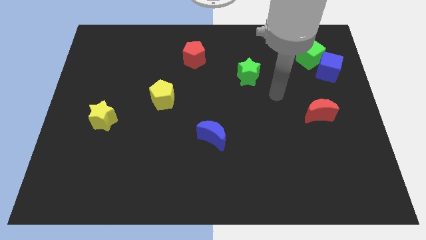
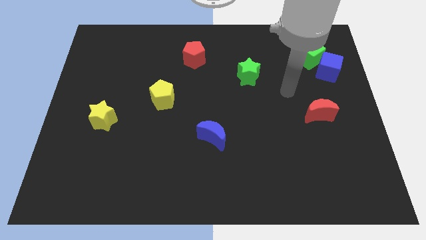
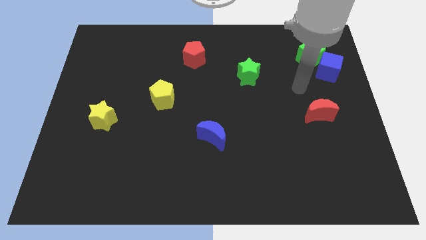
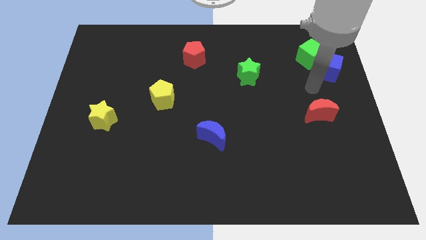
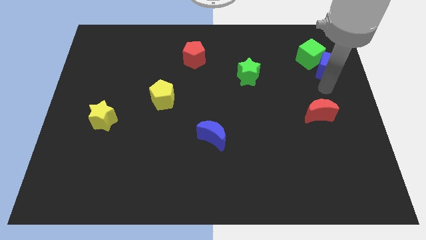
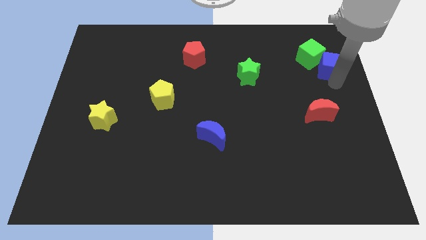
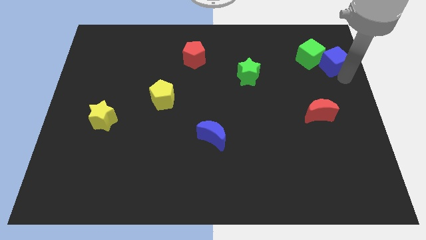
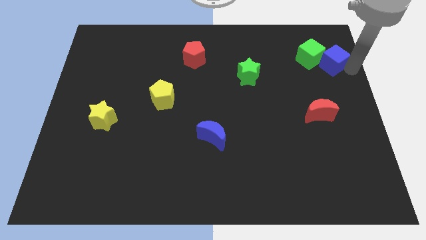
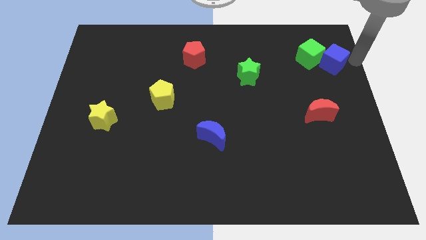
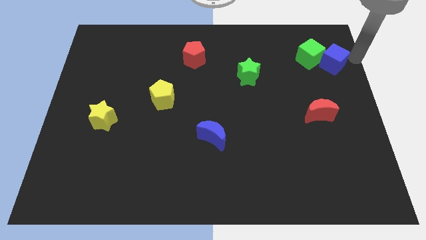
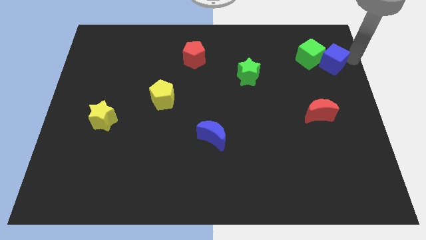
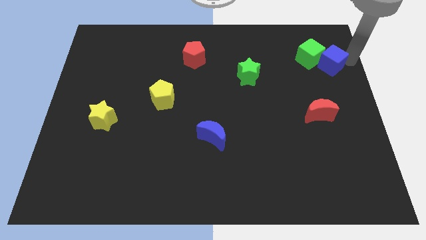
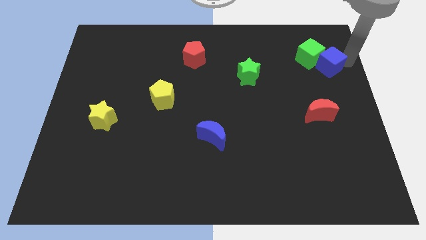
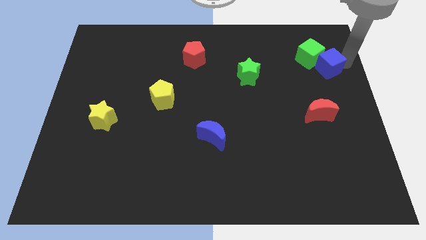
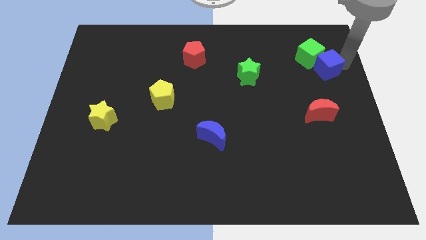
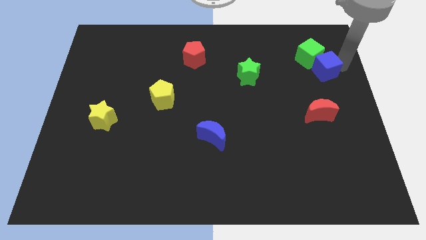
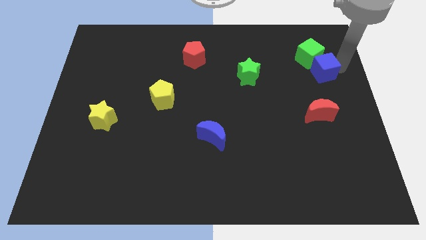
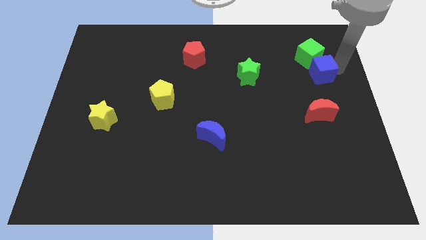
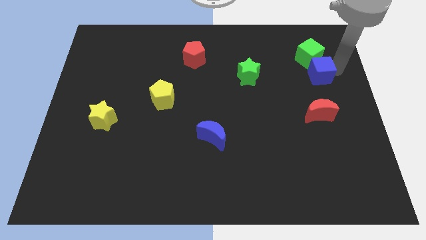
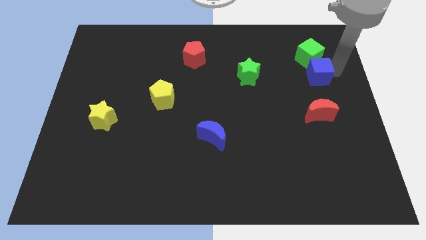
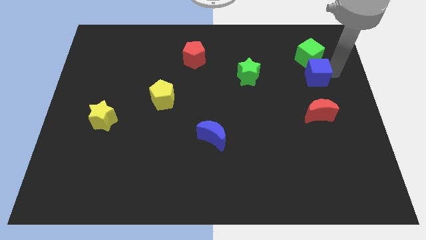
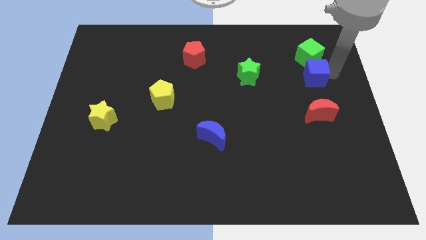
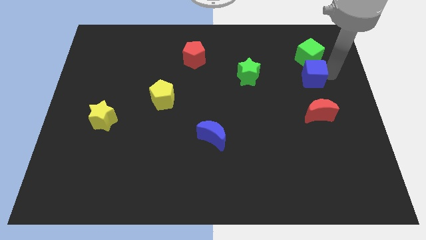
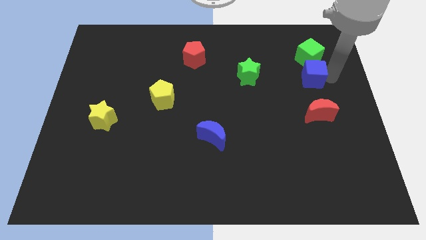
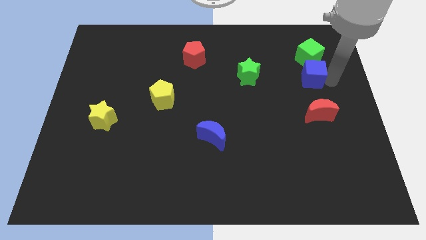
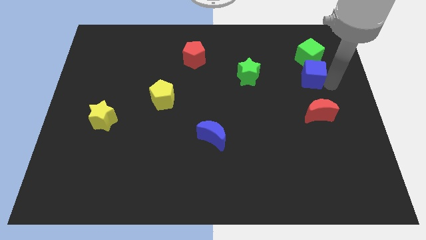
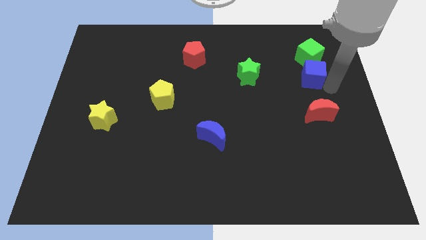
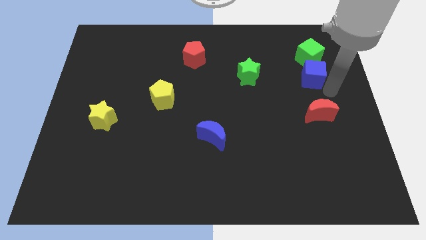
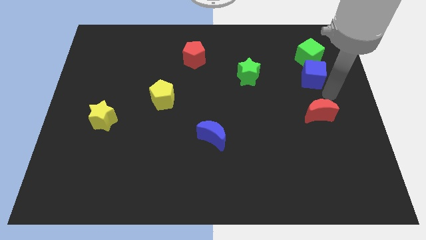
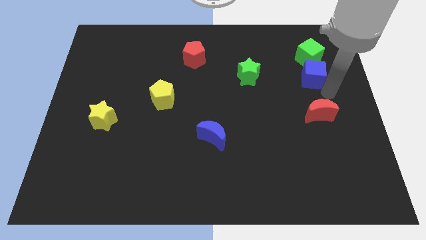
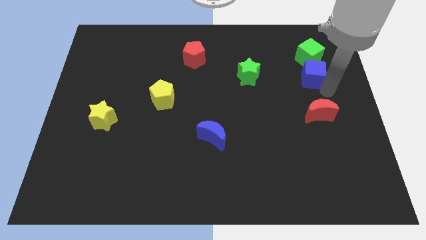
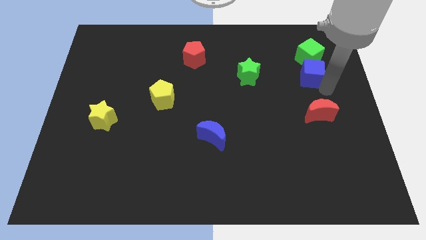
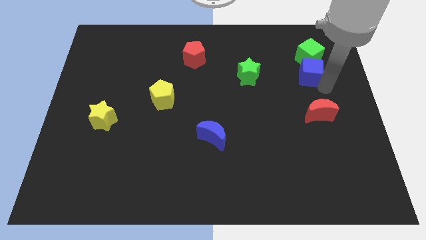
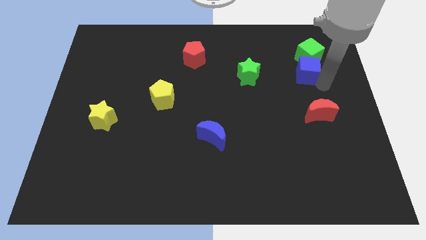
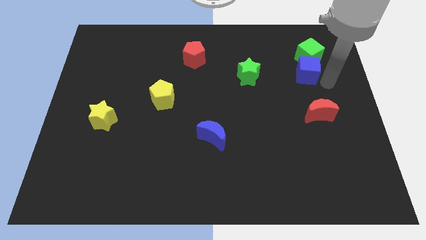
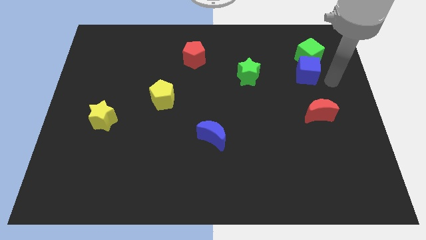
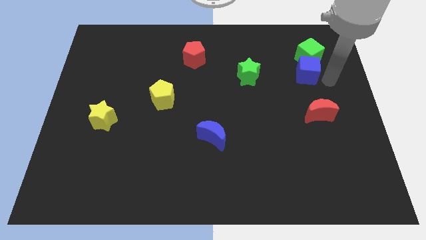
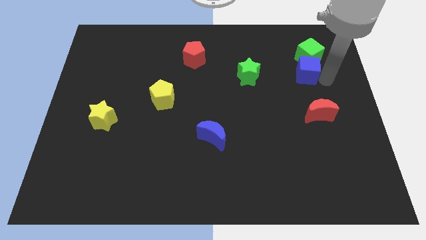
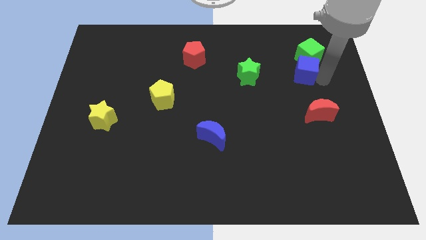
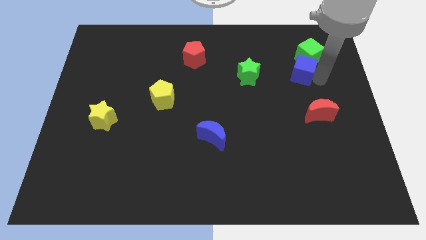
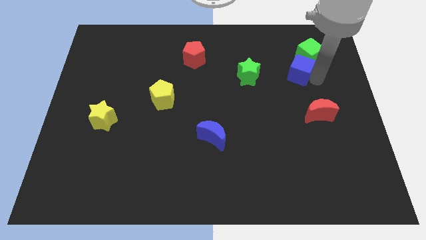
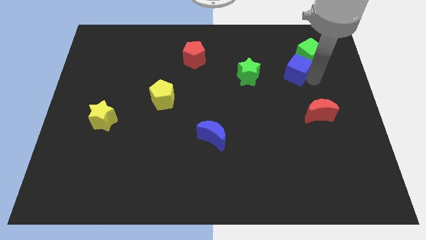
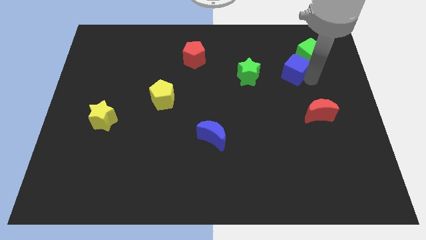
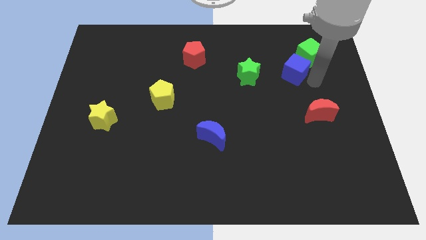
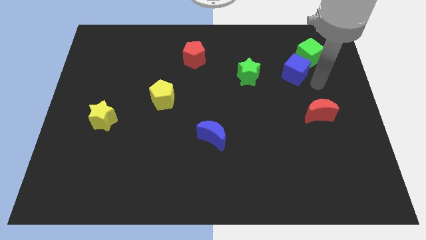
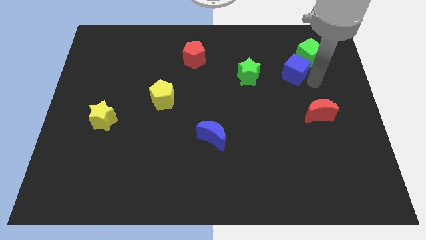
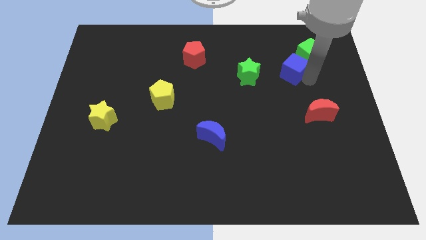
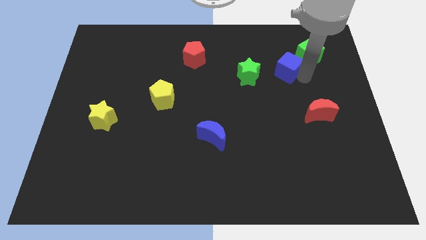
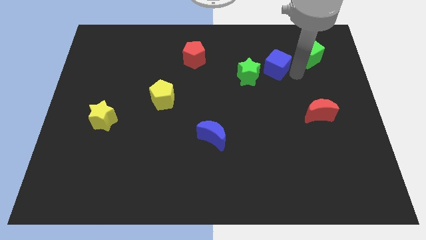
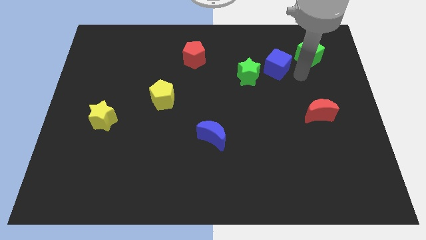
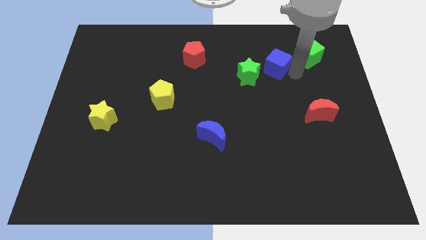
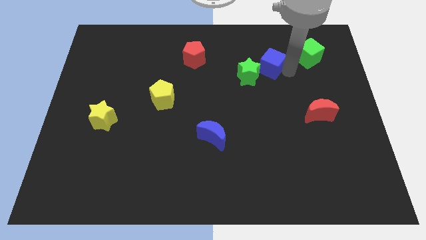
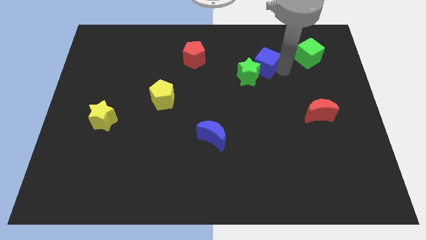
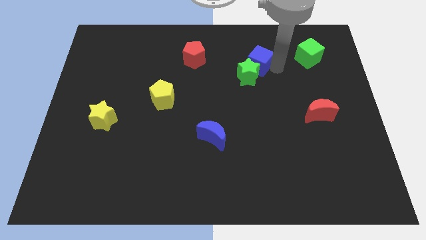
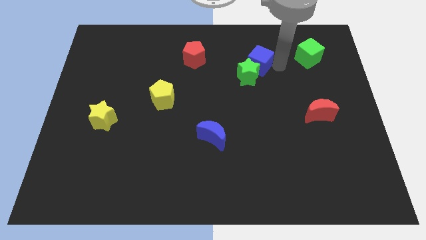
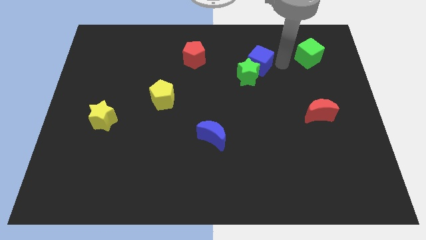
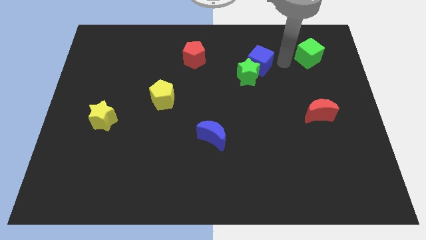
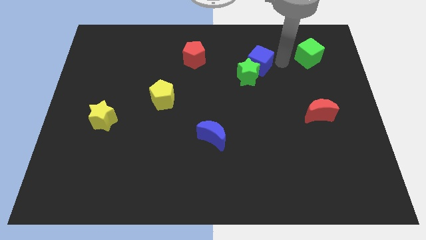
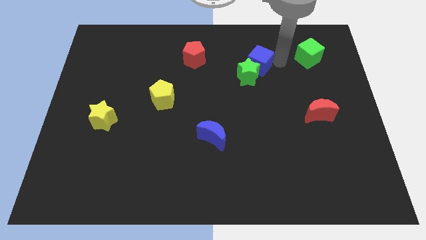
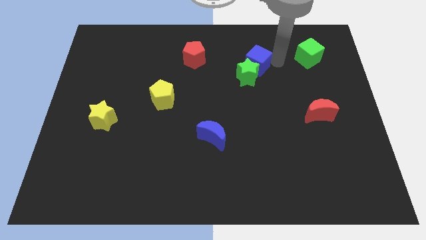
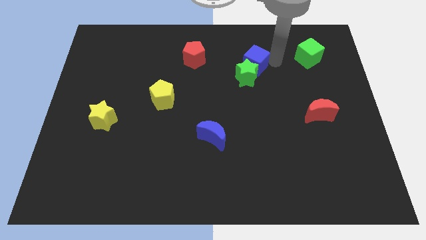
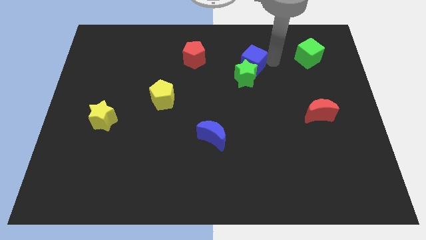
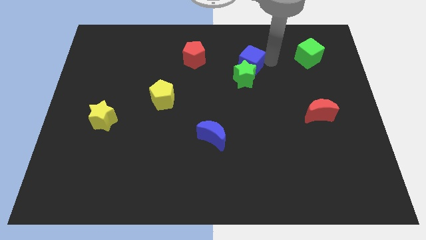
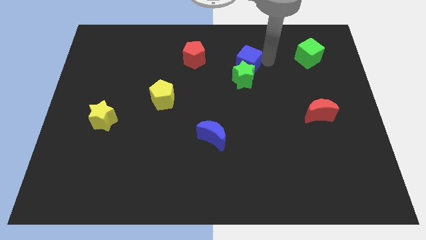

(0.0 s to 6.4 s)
push the blue cube to the left

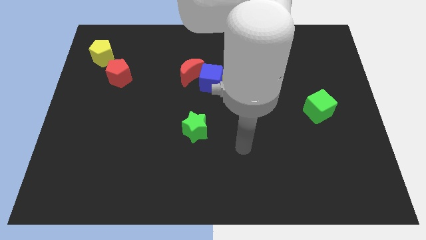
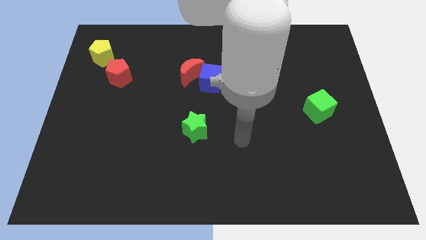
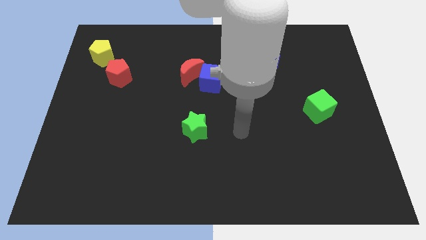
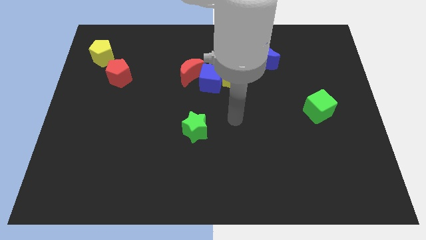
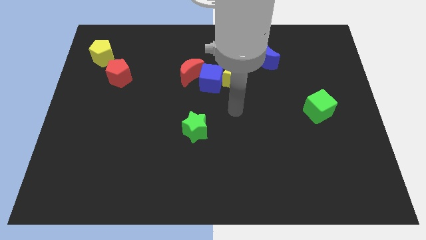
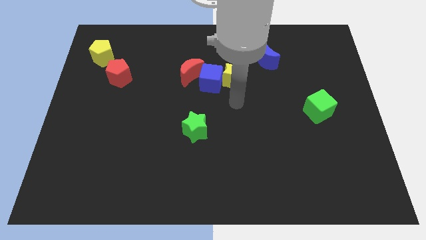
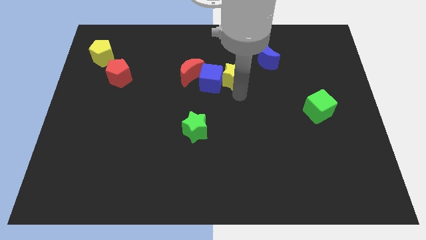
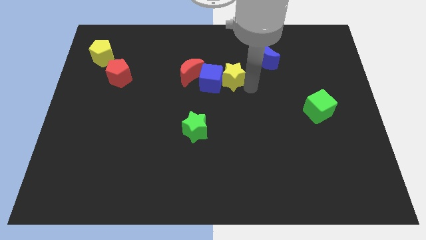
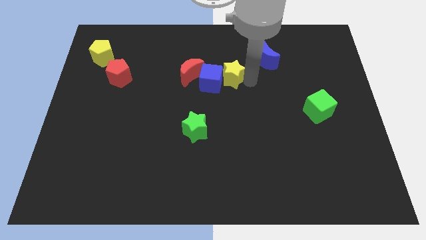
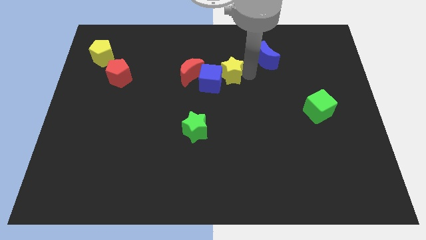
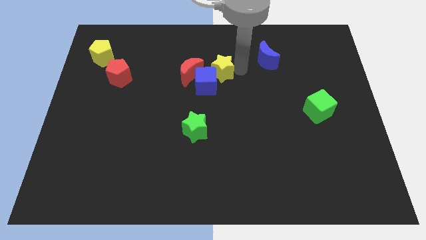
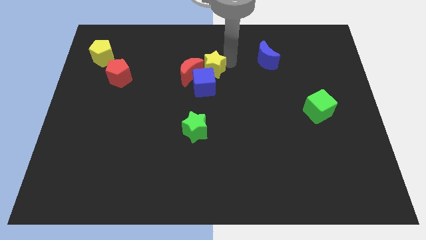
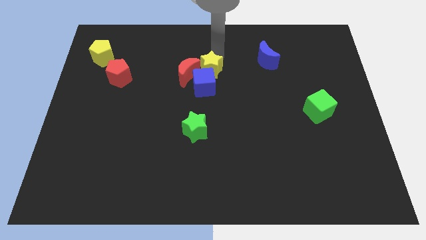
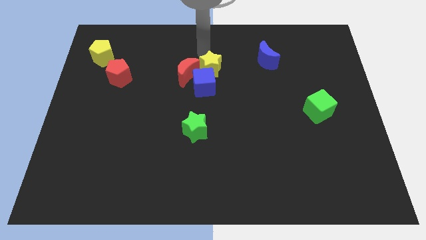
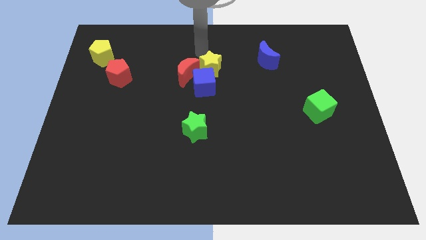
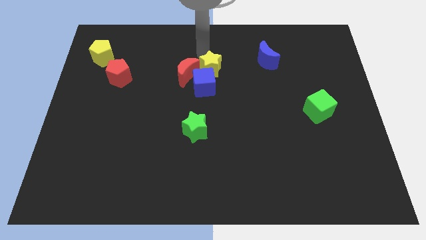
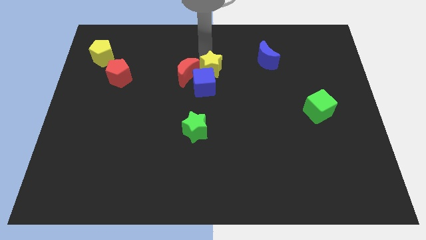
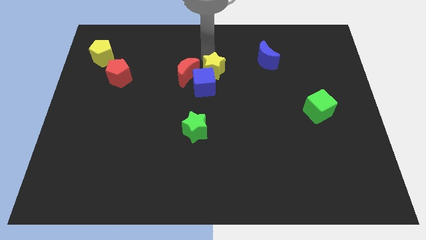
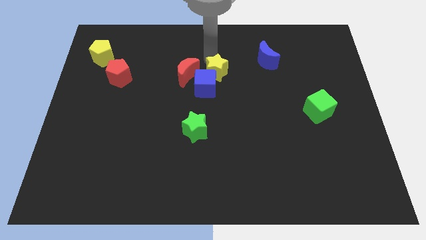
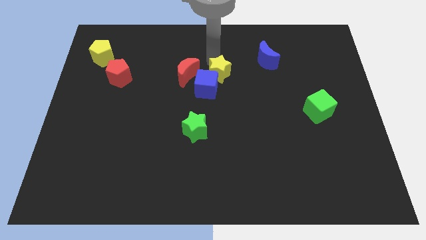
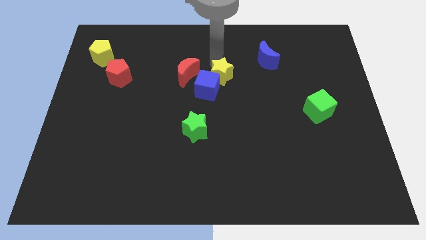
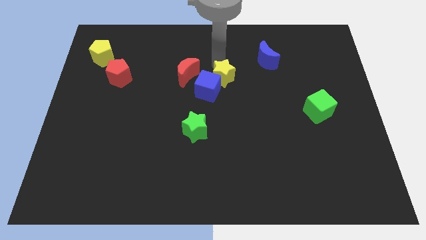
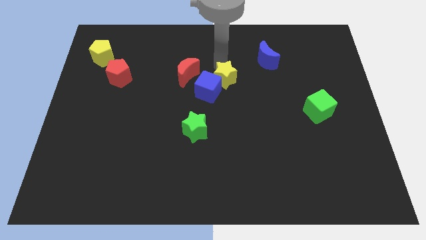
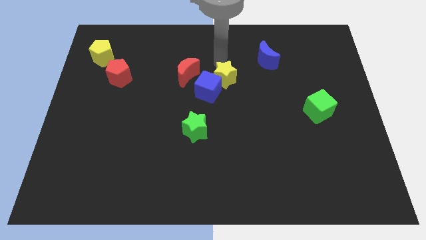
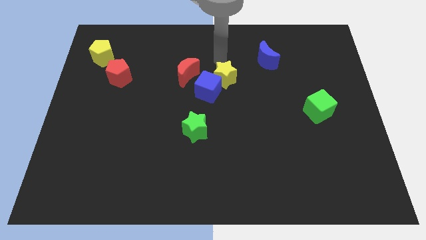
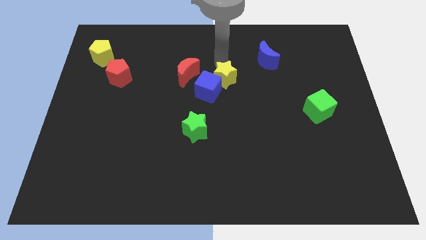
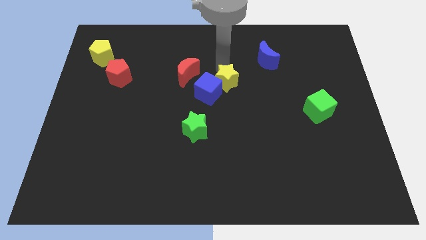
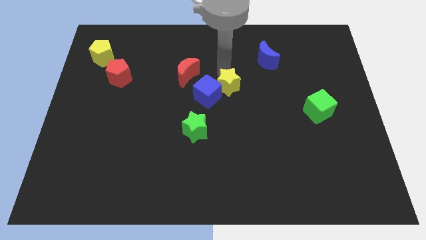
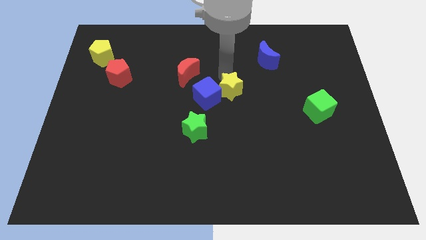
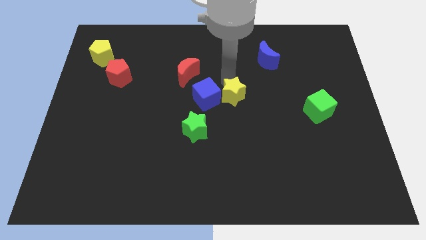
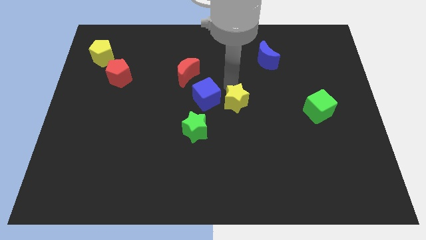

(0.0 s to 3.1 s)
slide the yellow star a little bit down
